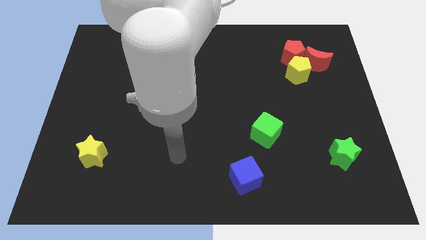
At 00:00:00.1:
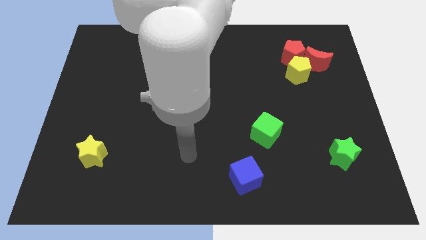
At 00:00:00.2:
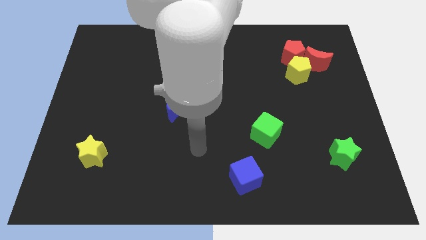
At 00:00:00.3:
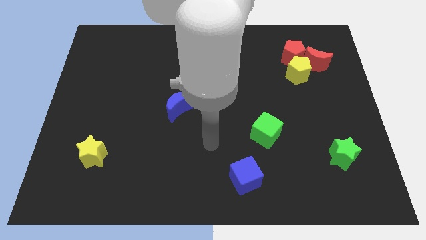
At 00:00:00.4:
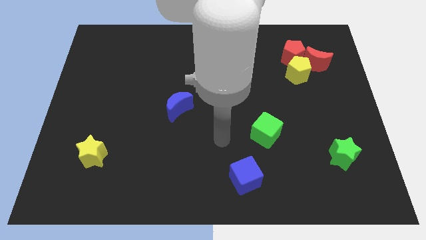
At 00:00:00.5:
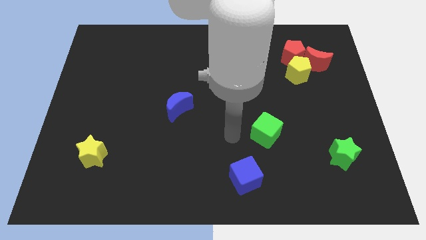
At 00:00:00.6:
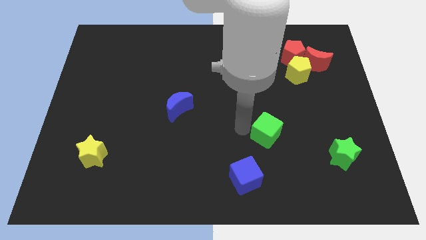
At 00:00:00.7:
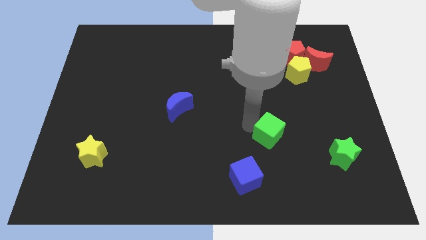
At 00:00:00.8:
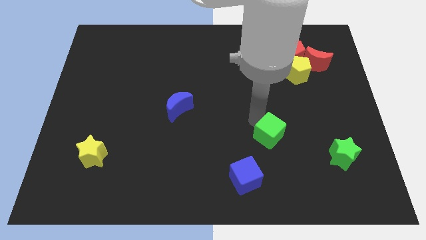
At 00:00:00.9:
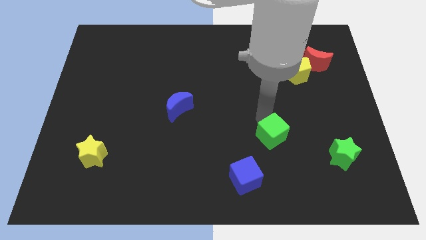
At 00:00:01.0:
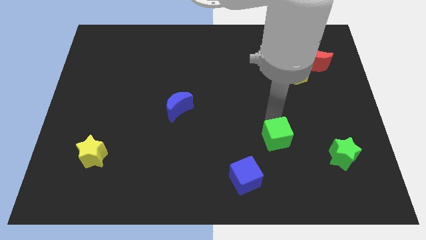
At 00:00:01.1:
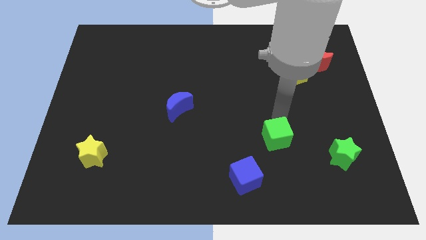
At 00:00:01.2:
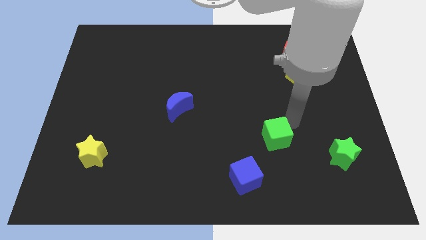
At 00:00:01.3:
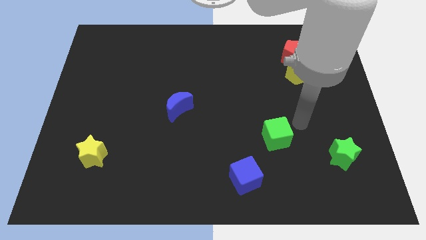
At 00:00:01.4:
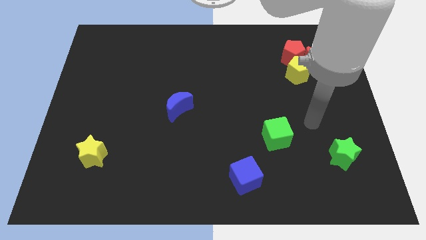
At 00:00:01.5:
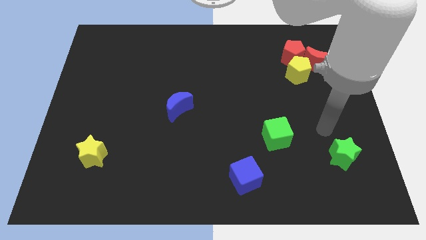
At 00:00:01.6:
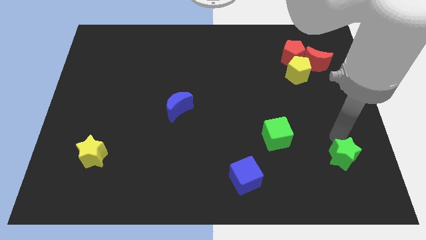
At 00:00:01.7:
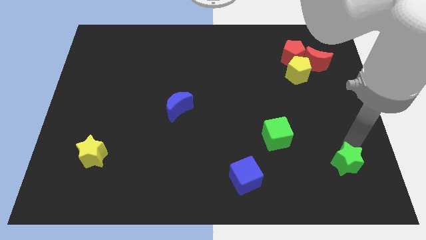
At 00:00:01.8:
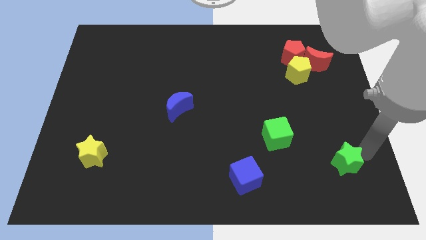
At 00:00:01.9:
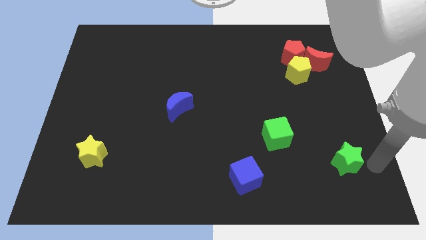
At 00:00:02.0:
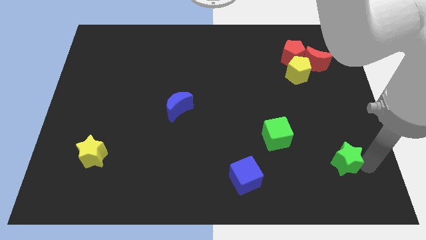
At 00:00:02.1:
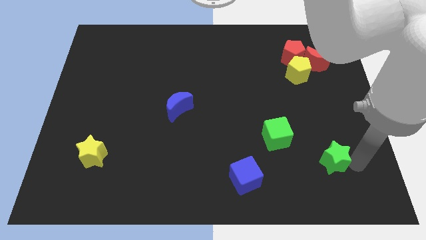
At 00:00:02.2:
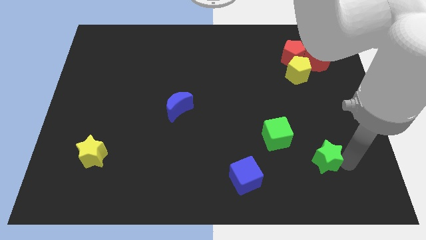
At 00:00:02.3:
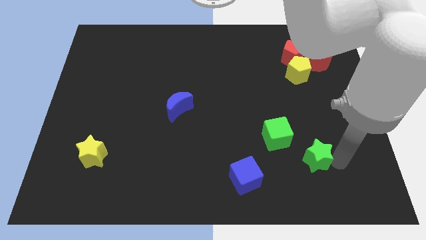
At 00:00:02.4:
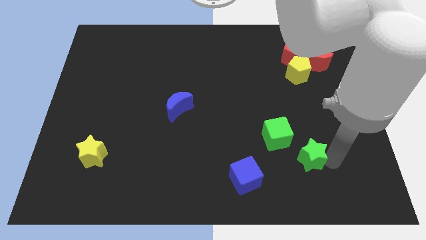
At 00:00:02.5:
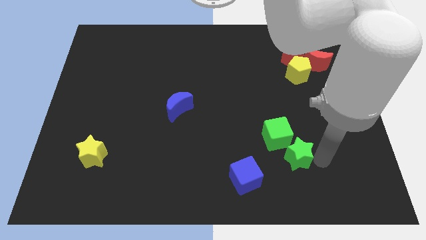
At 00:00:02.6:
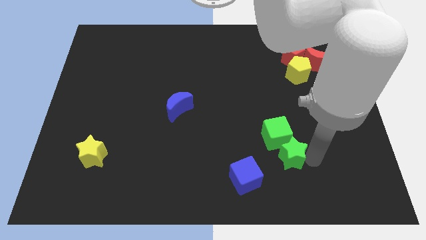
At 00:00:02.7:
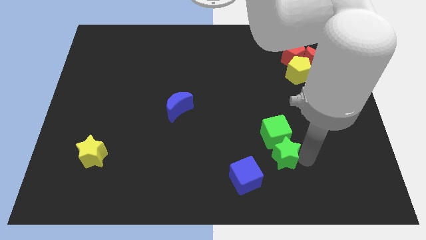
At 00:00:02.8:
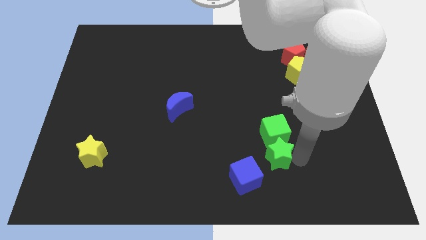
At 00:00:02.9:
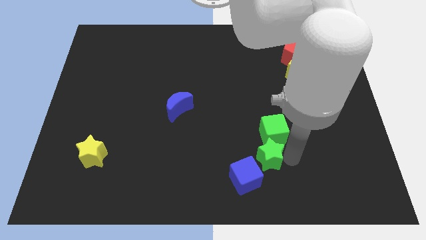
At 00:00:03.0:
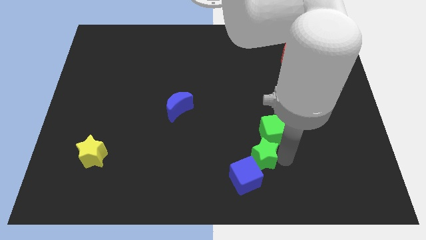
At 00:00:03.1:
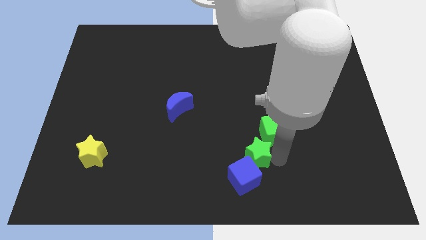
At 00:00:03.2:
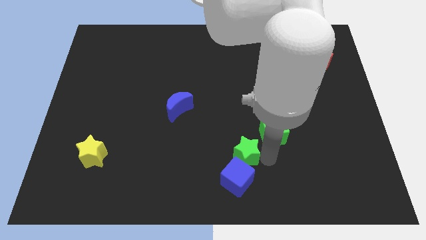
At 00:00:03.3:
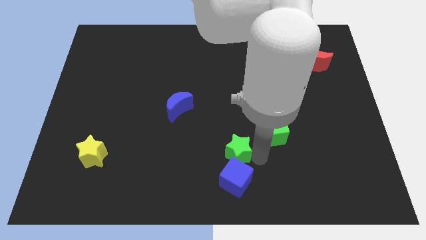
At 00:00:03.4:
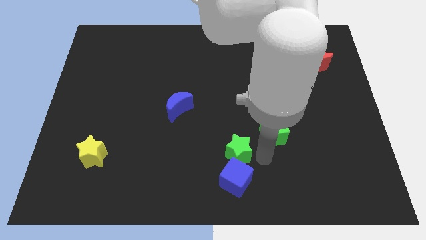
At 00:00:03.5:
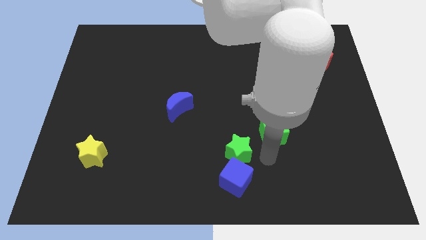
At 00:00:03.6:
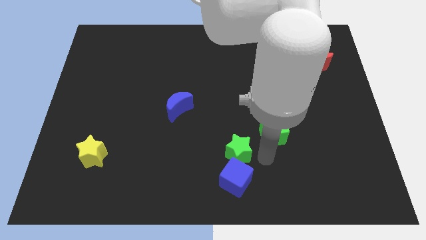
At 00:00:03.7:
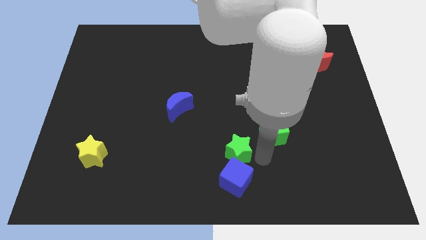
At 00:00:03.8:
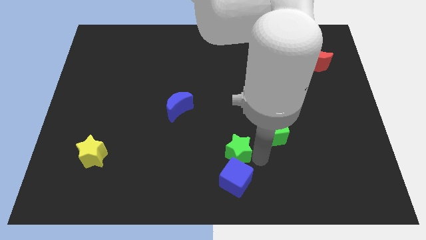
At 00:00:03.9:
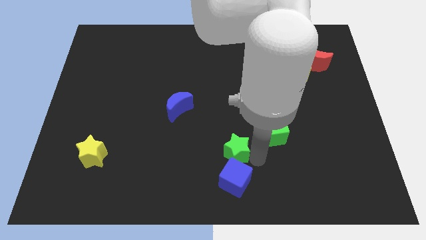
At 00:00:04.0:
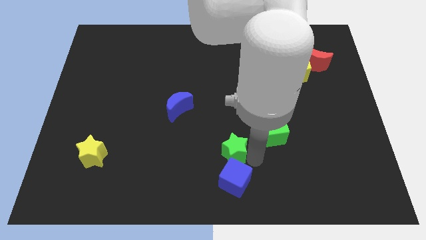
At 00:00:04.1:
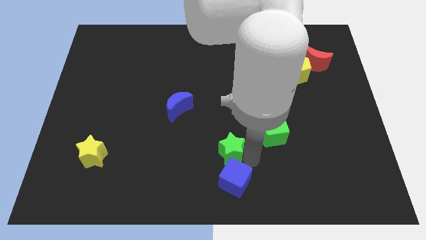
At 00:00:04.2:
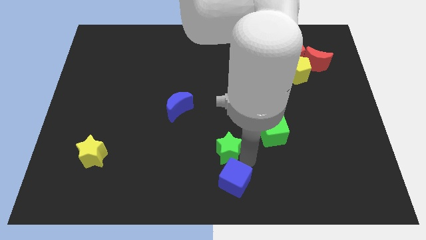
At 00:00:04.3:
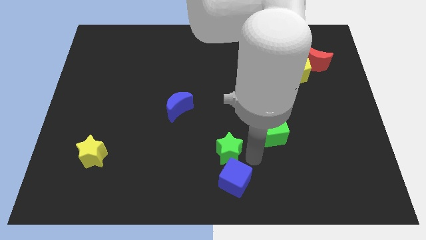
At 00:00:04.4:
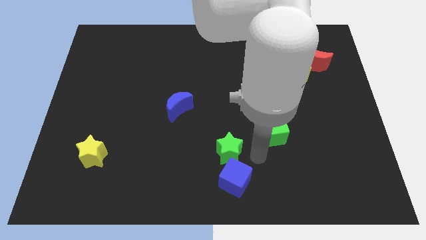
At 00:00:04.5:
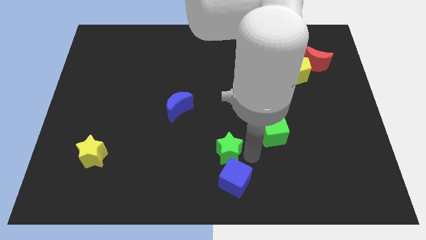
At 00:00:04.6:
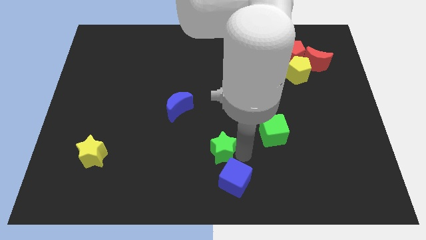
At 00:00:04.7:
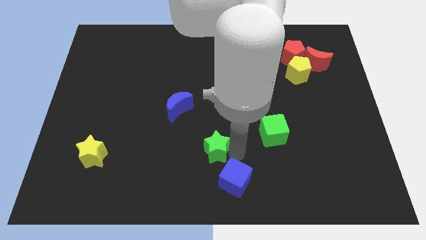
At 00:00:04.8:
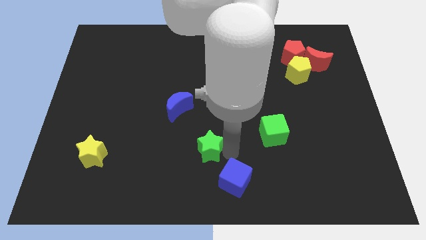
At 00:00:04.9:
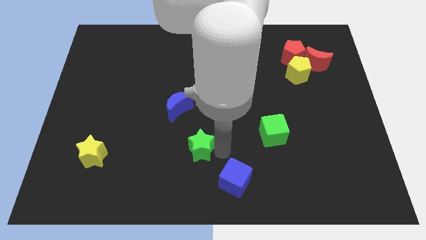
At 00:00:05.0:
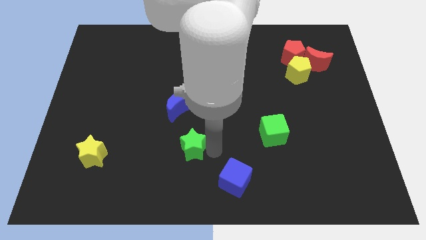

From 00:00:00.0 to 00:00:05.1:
slide the green star to the bottom of the blue moon

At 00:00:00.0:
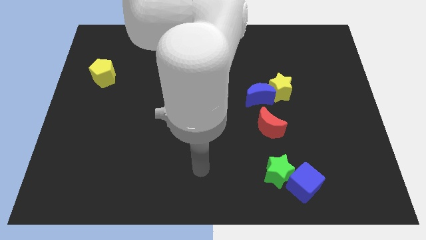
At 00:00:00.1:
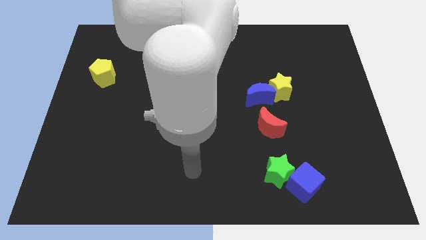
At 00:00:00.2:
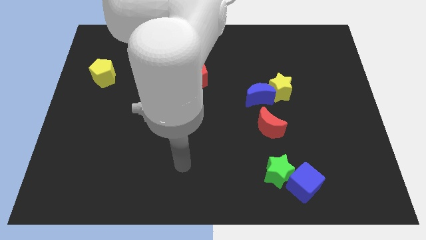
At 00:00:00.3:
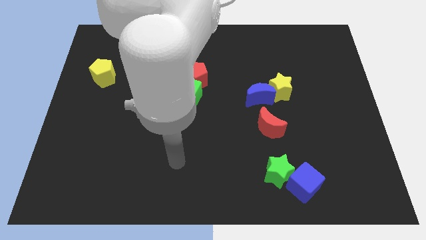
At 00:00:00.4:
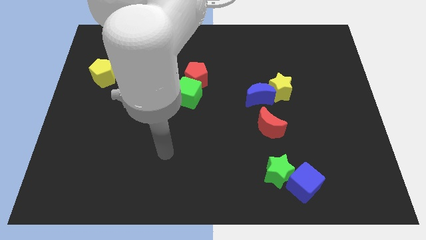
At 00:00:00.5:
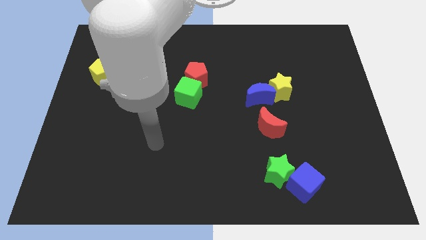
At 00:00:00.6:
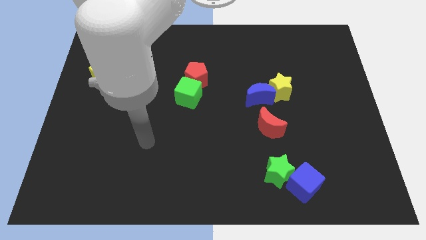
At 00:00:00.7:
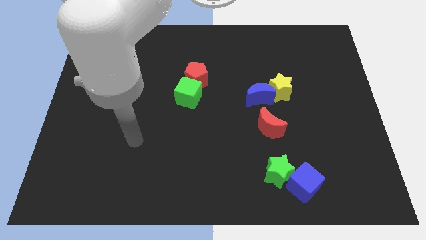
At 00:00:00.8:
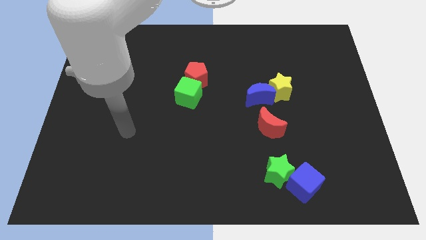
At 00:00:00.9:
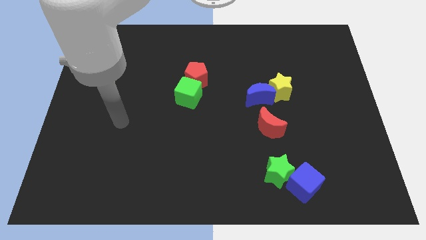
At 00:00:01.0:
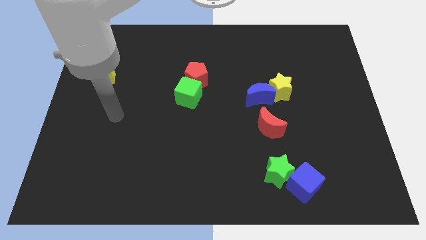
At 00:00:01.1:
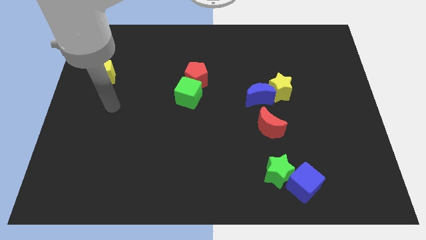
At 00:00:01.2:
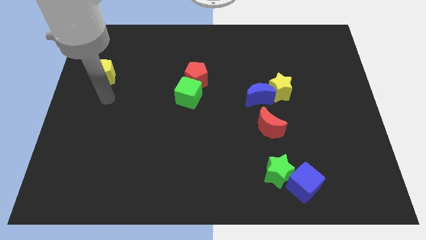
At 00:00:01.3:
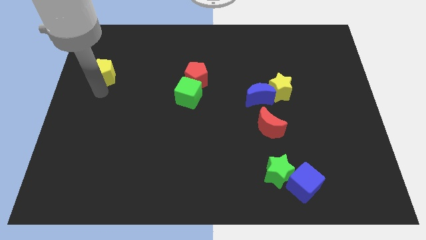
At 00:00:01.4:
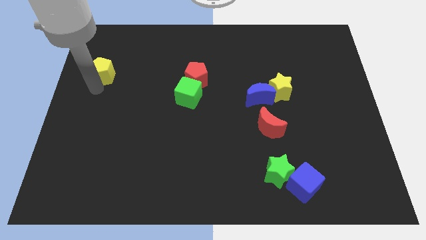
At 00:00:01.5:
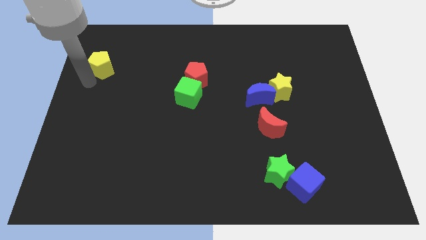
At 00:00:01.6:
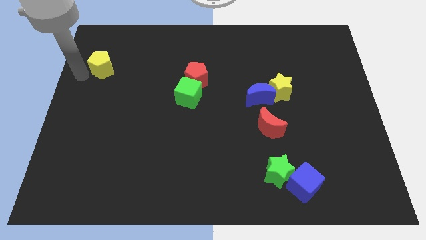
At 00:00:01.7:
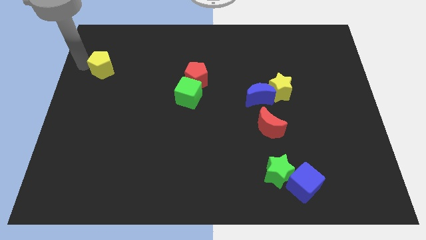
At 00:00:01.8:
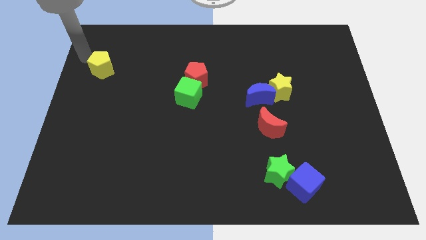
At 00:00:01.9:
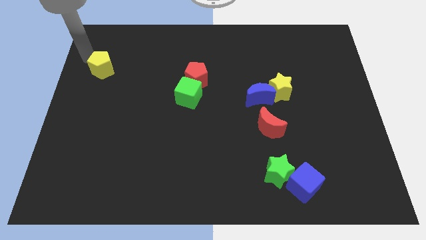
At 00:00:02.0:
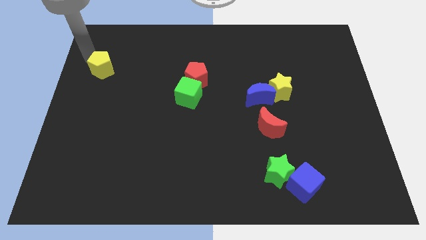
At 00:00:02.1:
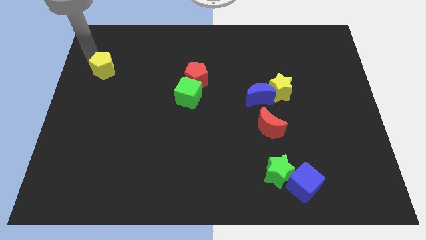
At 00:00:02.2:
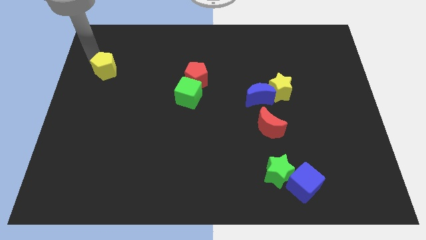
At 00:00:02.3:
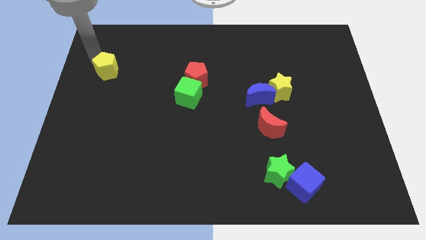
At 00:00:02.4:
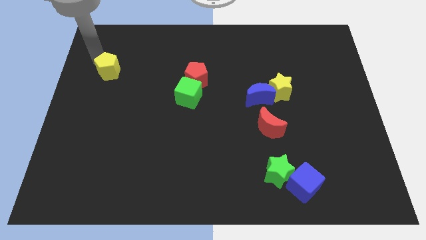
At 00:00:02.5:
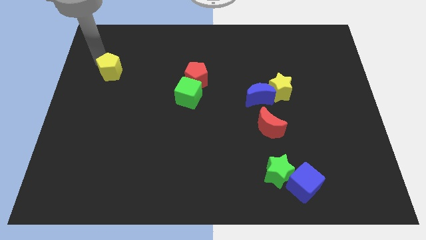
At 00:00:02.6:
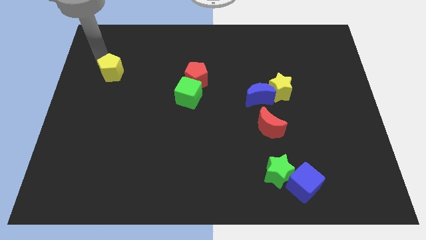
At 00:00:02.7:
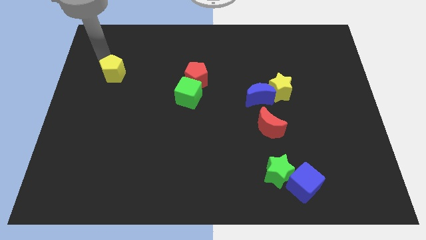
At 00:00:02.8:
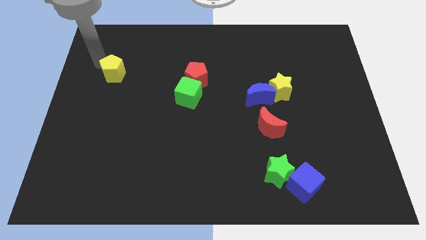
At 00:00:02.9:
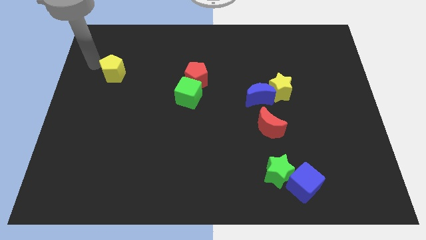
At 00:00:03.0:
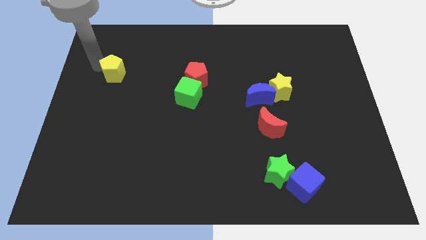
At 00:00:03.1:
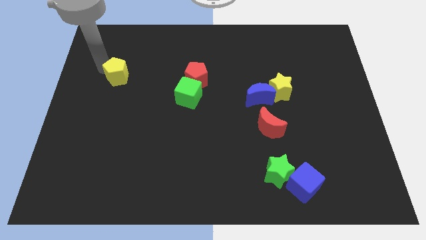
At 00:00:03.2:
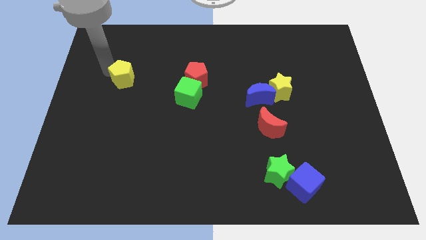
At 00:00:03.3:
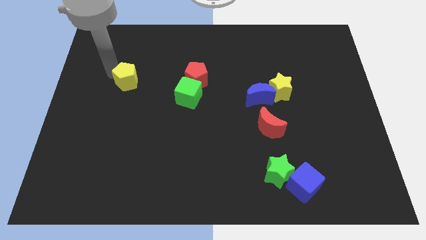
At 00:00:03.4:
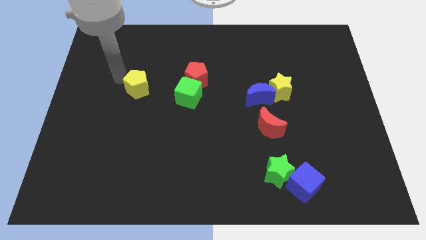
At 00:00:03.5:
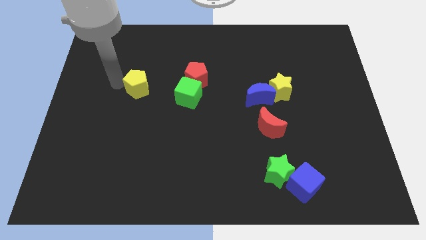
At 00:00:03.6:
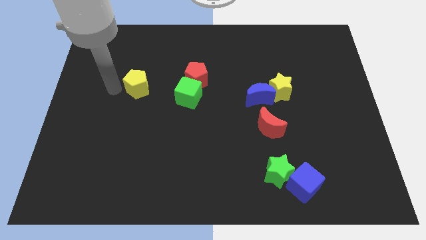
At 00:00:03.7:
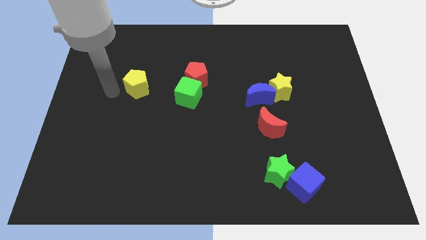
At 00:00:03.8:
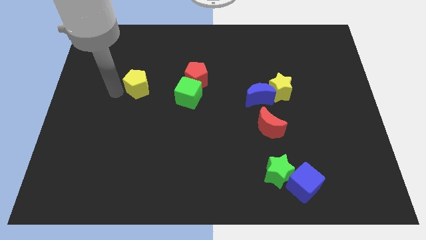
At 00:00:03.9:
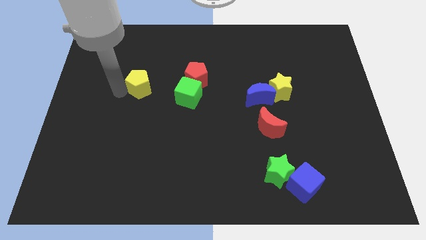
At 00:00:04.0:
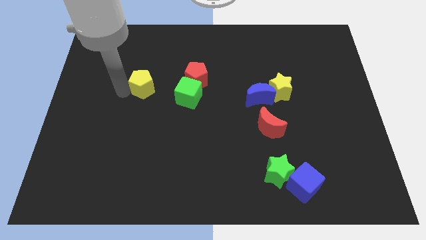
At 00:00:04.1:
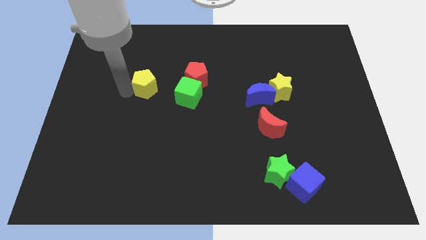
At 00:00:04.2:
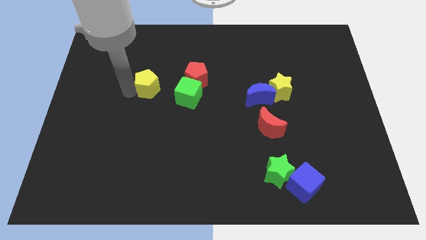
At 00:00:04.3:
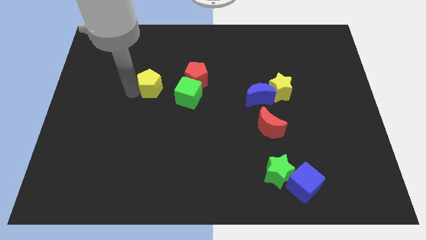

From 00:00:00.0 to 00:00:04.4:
put the yellow pentagon to the top left side of the green cube
